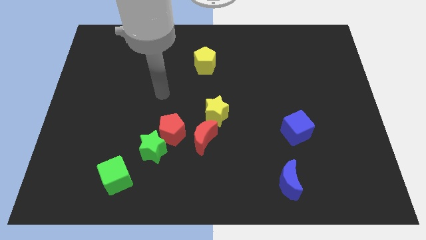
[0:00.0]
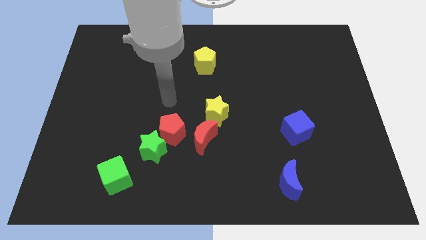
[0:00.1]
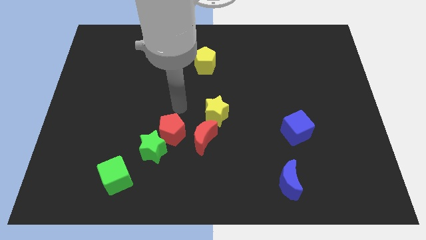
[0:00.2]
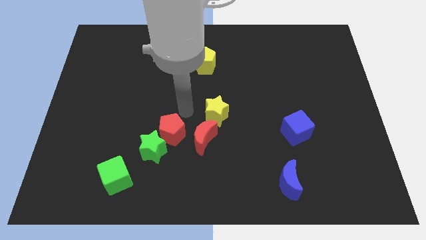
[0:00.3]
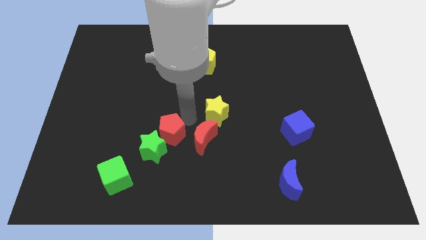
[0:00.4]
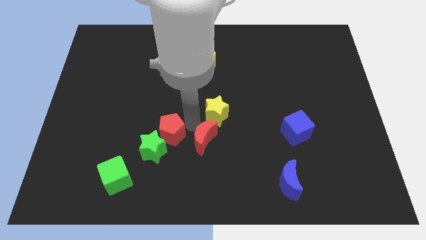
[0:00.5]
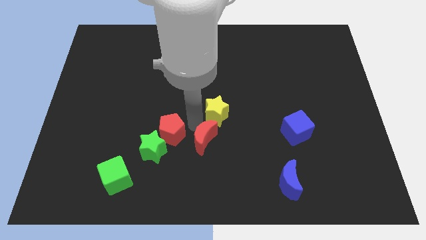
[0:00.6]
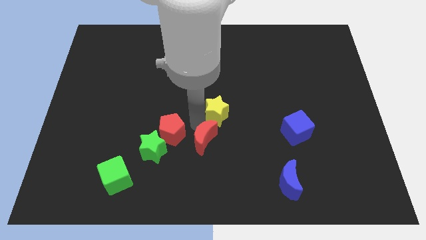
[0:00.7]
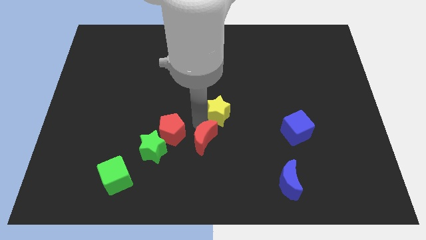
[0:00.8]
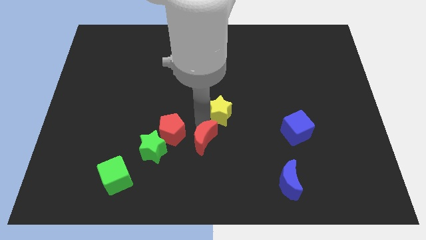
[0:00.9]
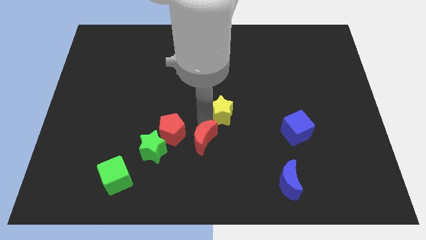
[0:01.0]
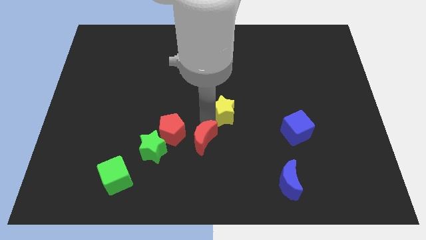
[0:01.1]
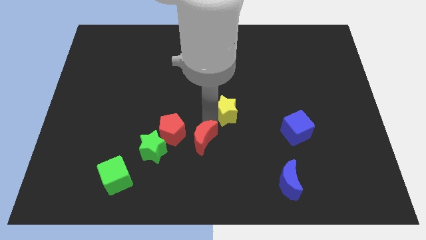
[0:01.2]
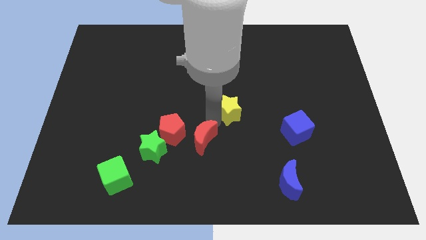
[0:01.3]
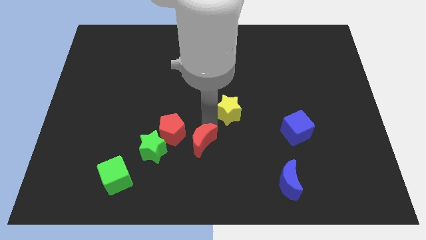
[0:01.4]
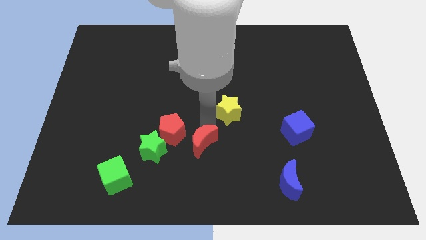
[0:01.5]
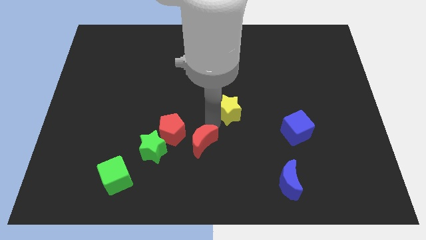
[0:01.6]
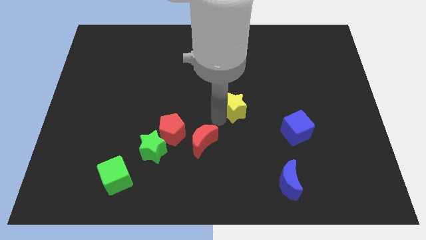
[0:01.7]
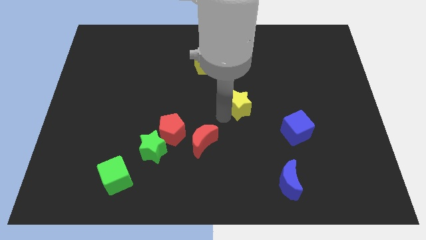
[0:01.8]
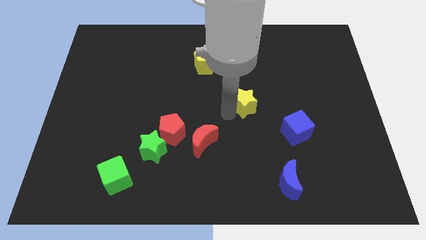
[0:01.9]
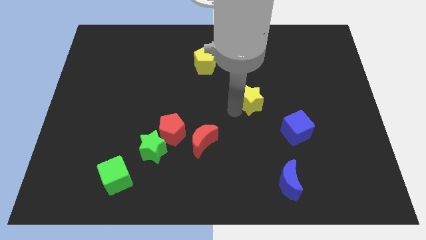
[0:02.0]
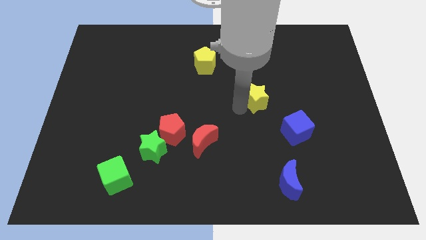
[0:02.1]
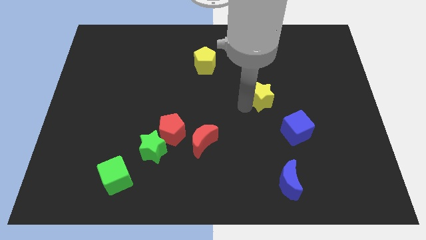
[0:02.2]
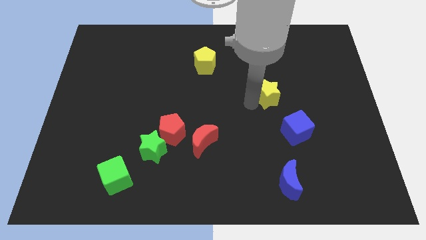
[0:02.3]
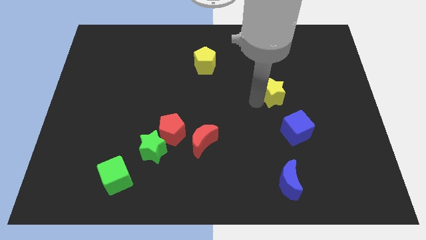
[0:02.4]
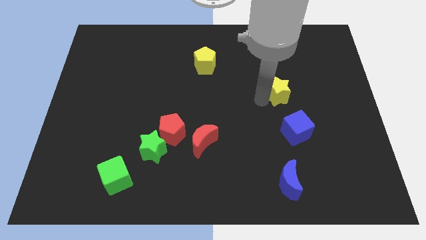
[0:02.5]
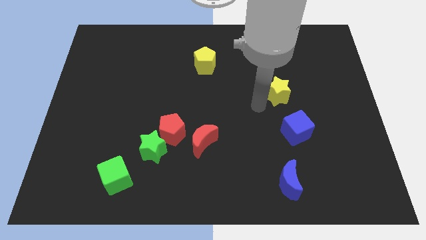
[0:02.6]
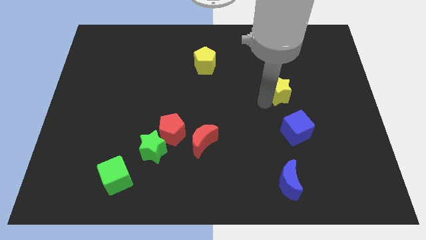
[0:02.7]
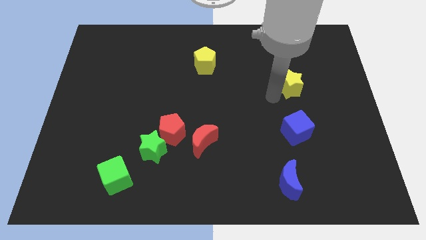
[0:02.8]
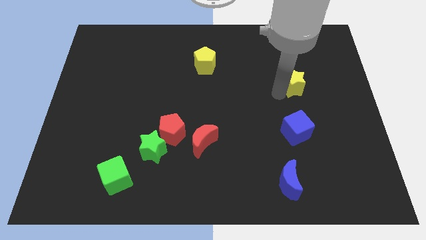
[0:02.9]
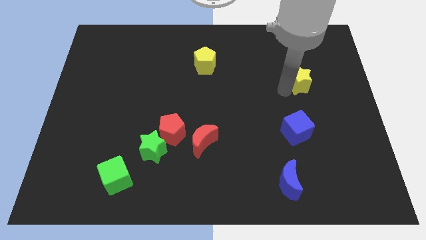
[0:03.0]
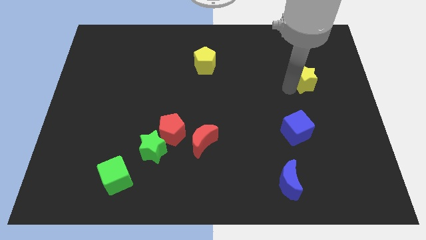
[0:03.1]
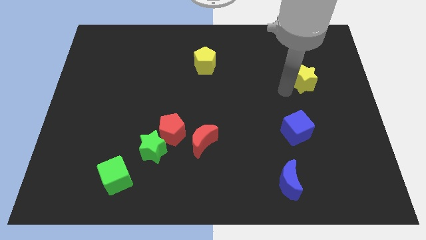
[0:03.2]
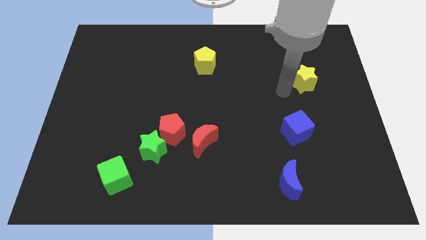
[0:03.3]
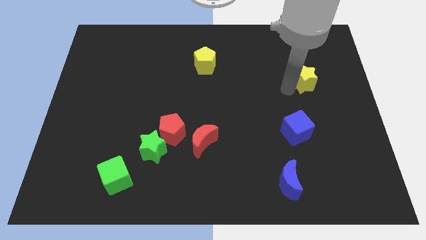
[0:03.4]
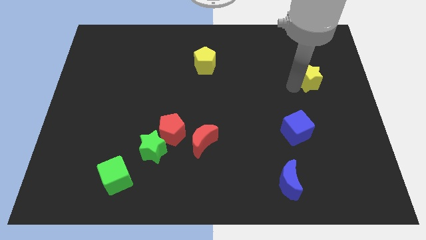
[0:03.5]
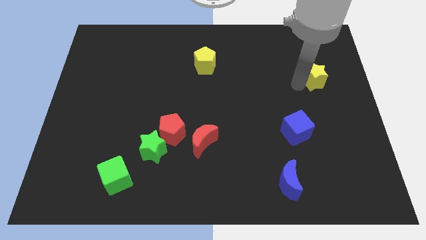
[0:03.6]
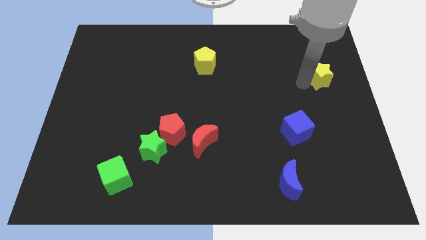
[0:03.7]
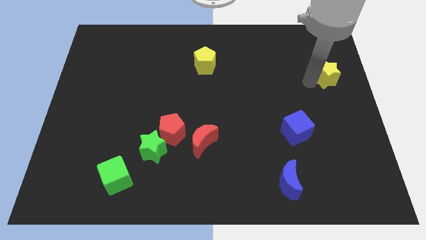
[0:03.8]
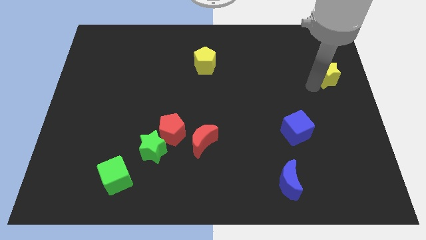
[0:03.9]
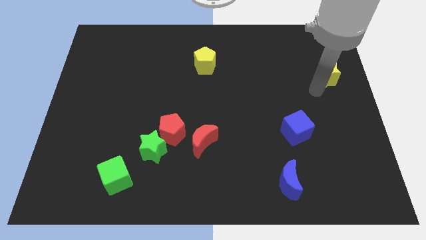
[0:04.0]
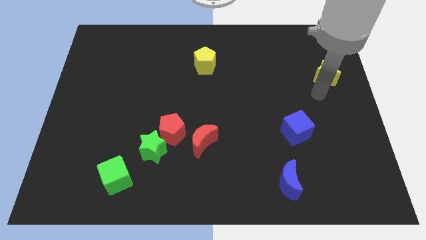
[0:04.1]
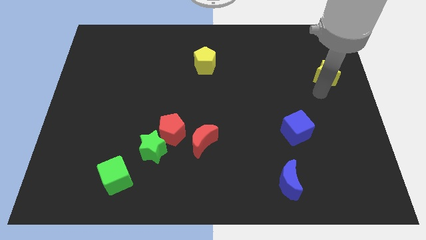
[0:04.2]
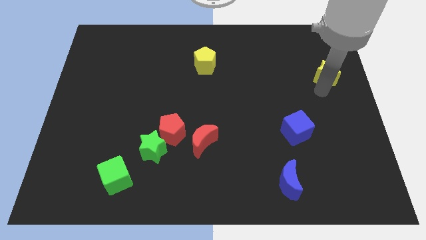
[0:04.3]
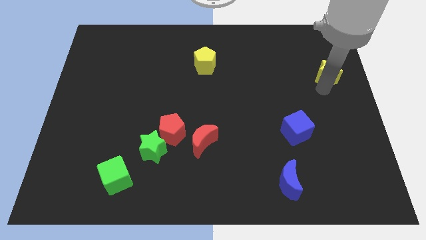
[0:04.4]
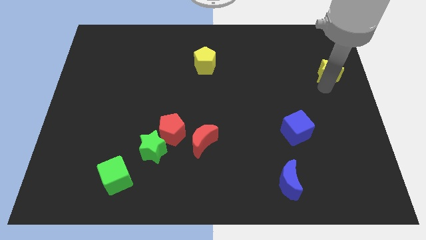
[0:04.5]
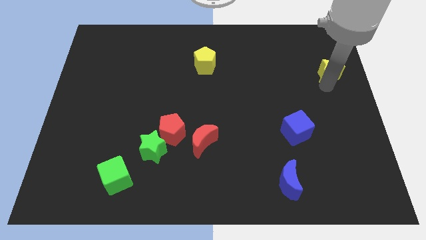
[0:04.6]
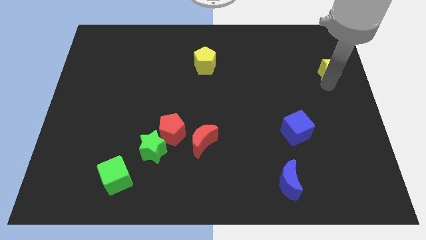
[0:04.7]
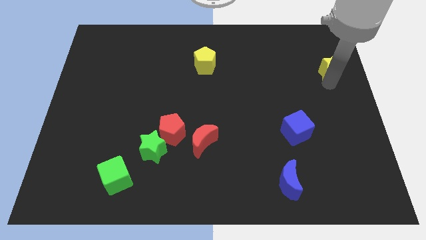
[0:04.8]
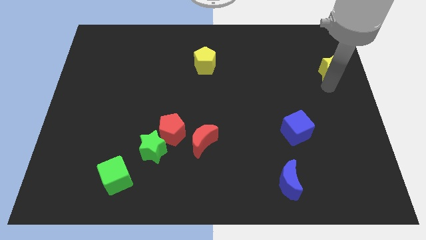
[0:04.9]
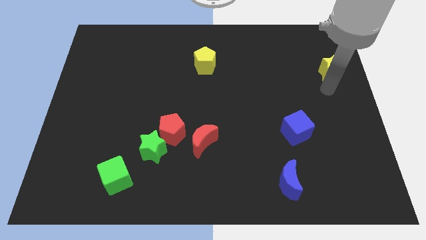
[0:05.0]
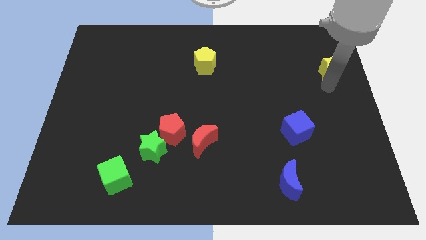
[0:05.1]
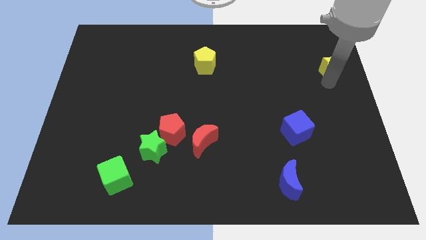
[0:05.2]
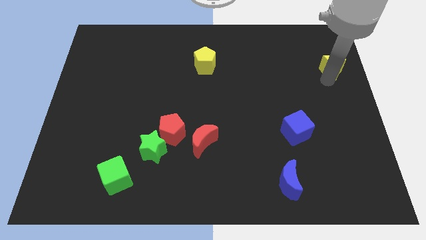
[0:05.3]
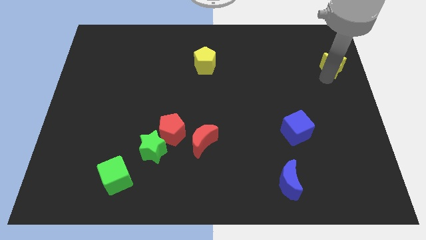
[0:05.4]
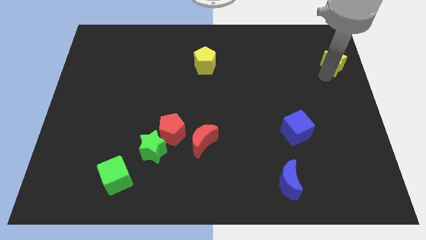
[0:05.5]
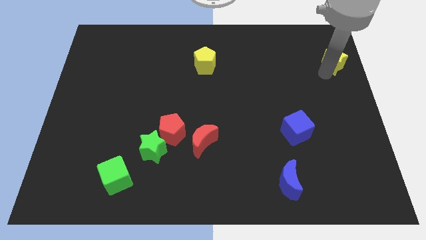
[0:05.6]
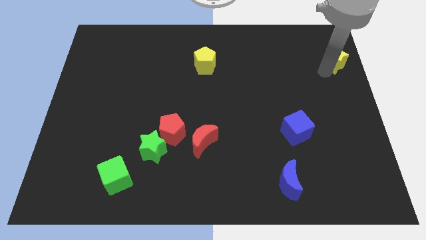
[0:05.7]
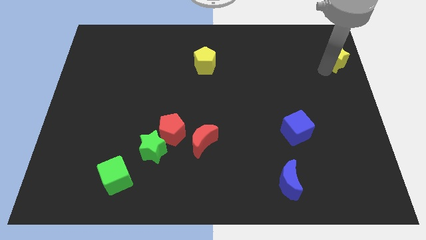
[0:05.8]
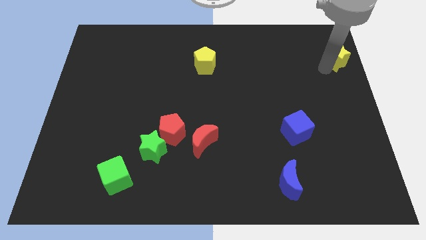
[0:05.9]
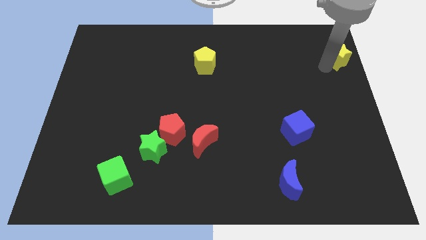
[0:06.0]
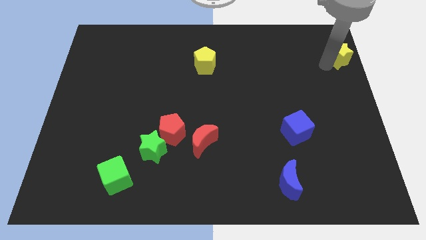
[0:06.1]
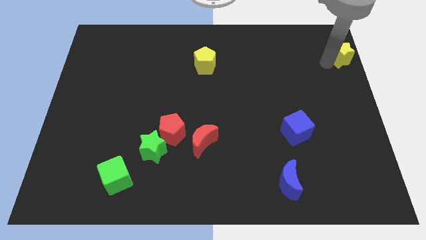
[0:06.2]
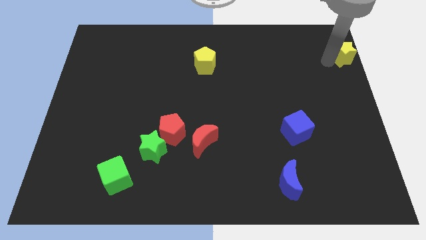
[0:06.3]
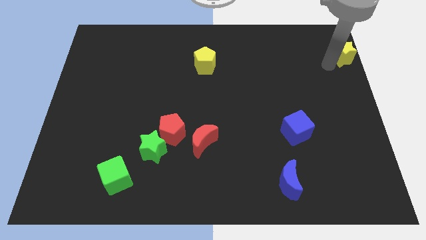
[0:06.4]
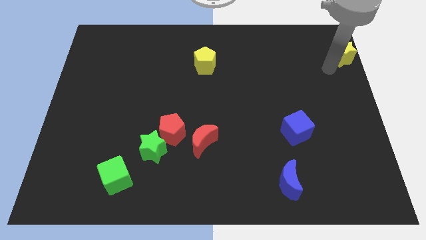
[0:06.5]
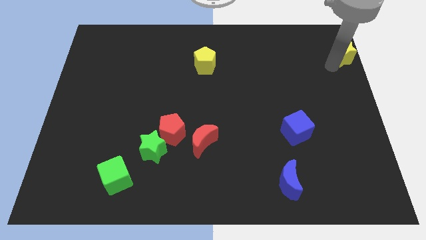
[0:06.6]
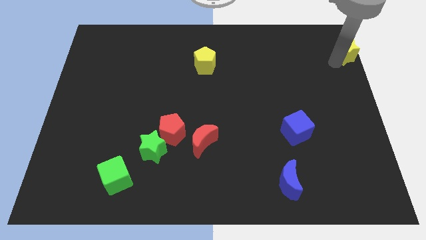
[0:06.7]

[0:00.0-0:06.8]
move the yellow star to the upper right corner

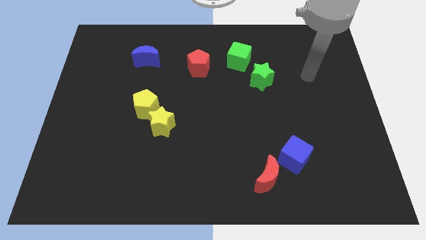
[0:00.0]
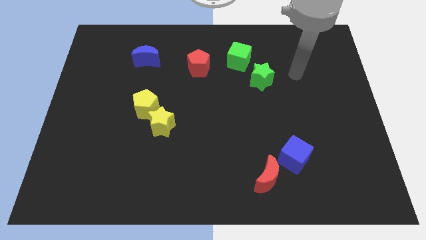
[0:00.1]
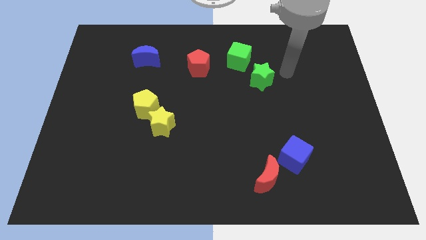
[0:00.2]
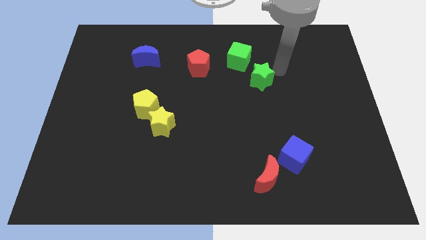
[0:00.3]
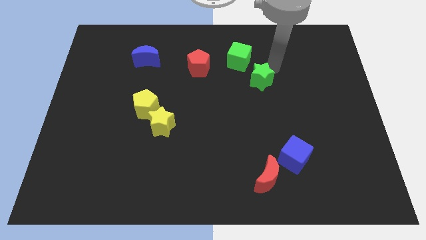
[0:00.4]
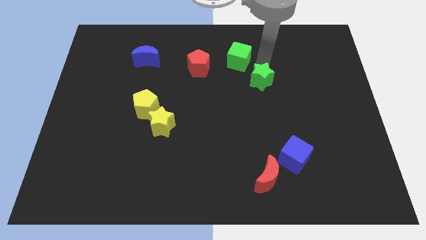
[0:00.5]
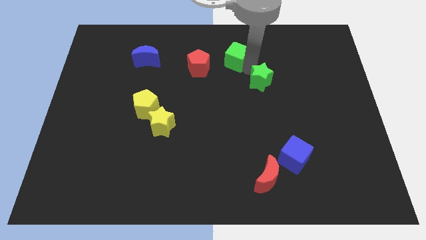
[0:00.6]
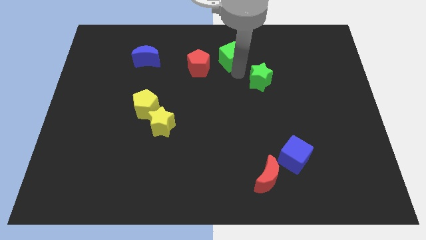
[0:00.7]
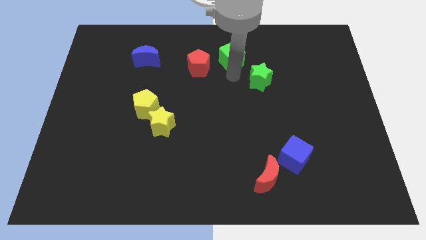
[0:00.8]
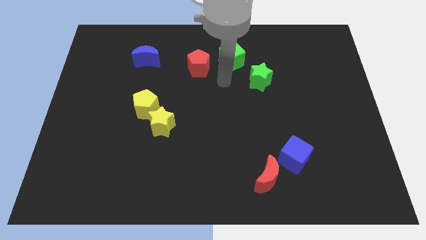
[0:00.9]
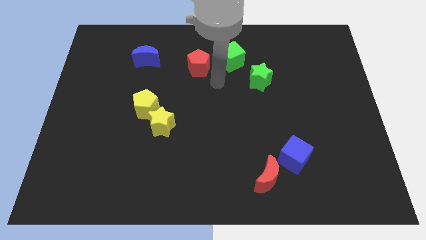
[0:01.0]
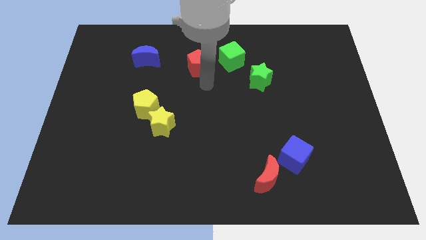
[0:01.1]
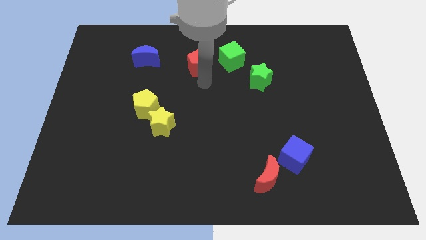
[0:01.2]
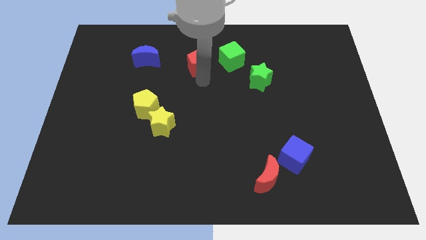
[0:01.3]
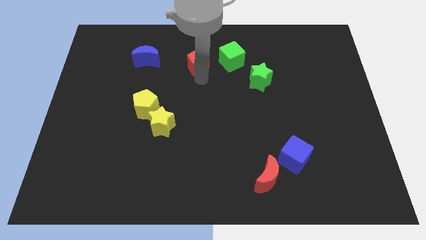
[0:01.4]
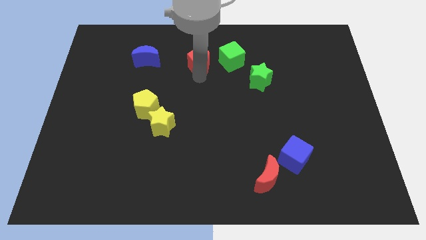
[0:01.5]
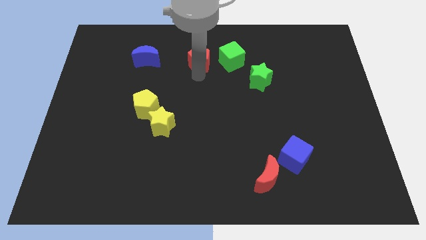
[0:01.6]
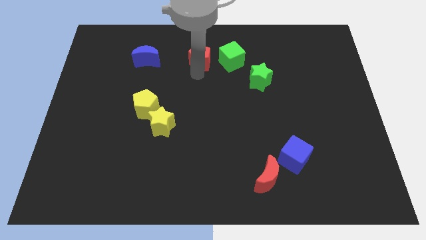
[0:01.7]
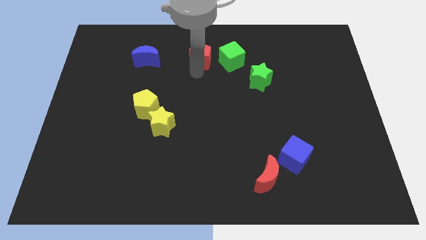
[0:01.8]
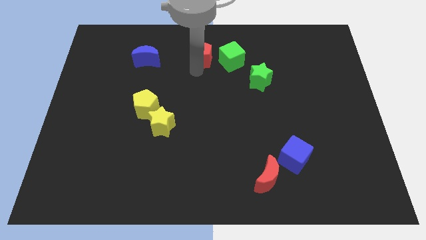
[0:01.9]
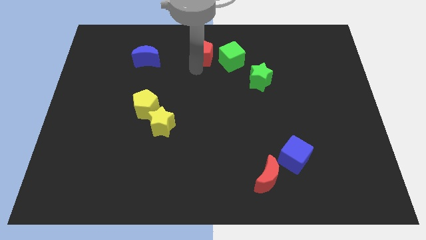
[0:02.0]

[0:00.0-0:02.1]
push the red pentagon to the top
